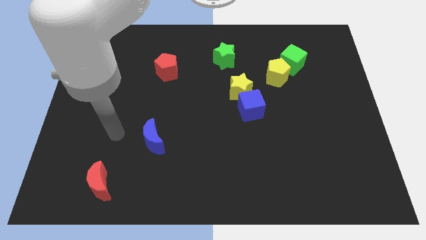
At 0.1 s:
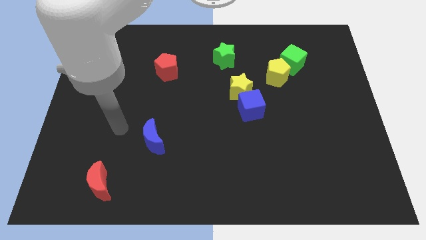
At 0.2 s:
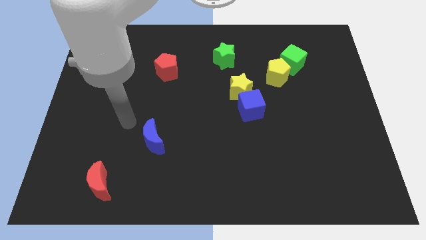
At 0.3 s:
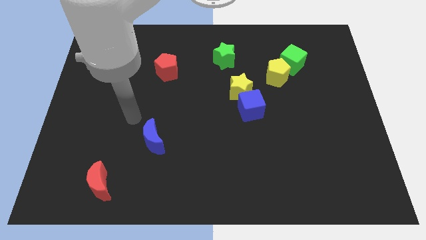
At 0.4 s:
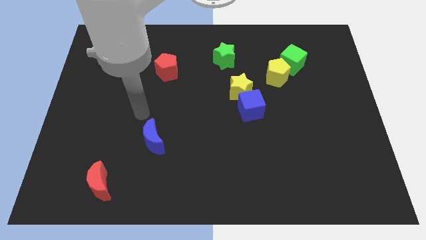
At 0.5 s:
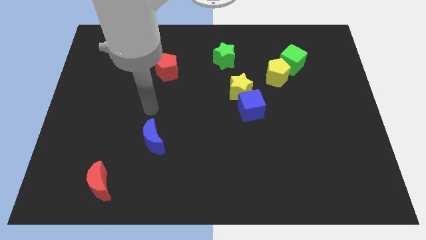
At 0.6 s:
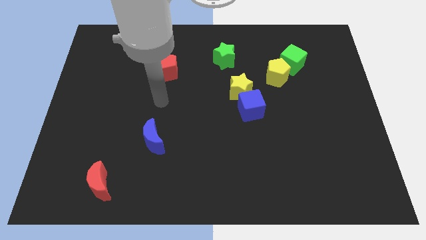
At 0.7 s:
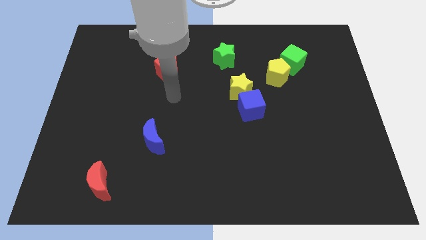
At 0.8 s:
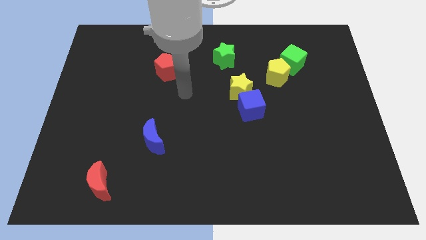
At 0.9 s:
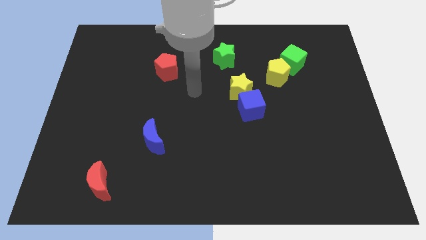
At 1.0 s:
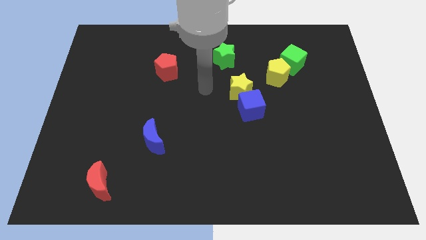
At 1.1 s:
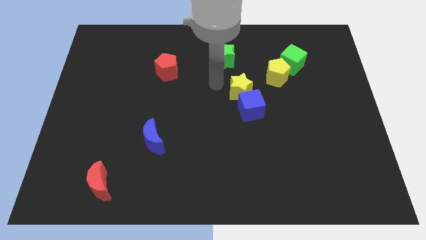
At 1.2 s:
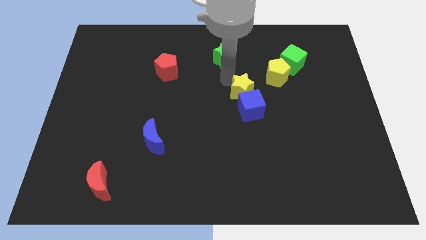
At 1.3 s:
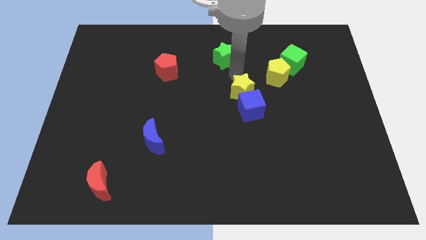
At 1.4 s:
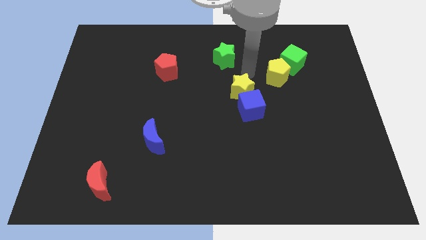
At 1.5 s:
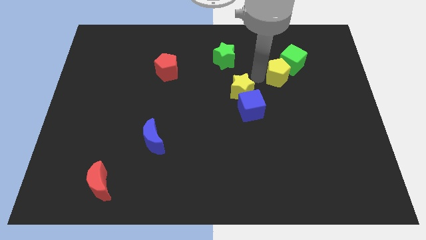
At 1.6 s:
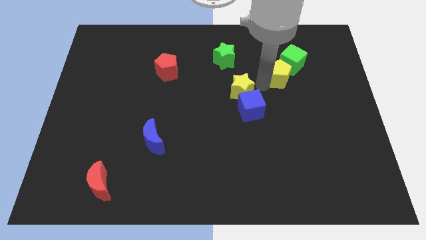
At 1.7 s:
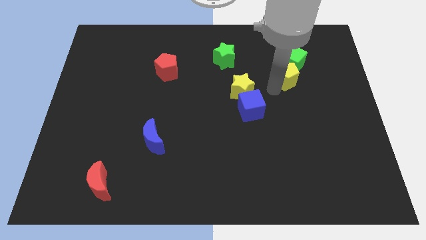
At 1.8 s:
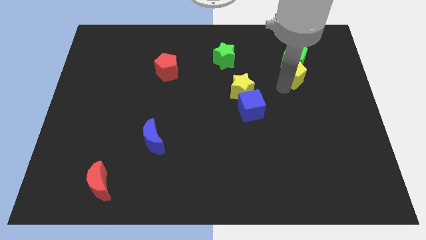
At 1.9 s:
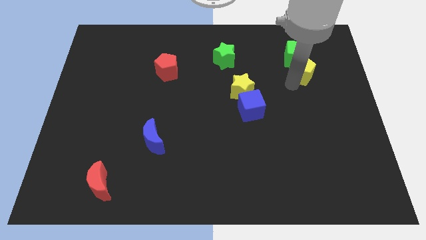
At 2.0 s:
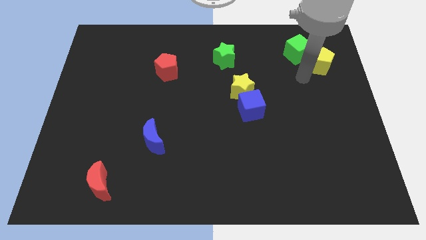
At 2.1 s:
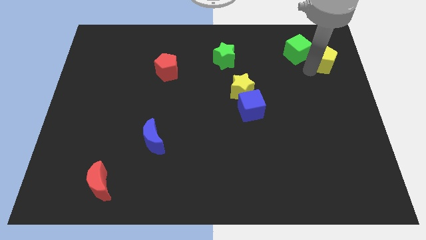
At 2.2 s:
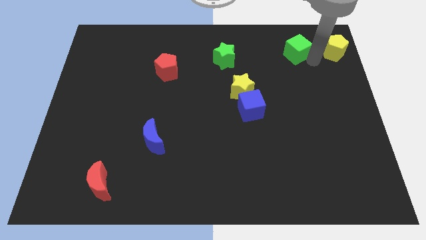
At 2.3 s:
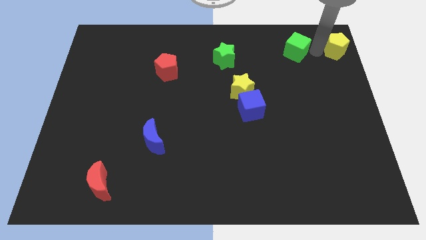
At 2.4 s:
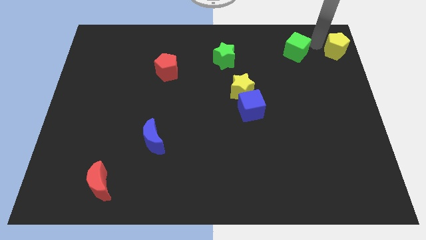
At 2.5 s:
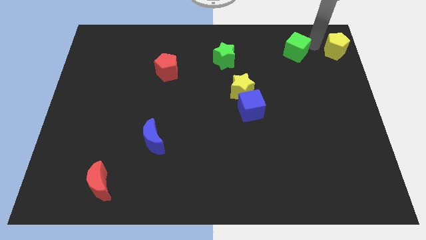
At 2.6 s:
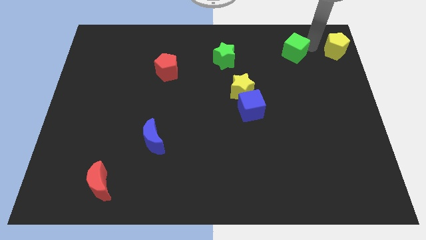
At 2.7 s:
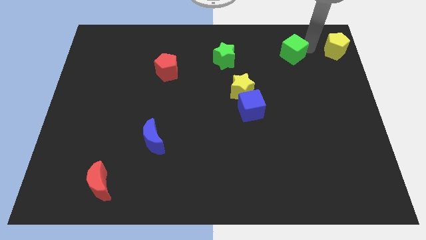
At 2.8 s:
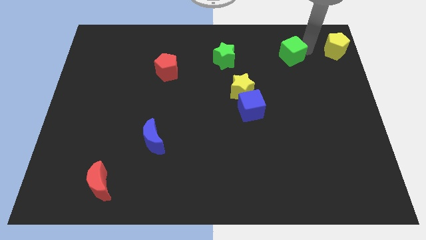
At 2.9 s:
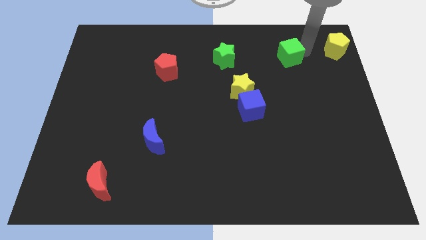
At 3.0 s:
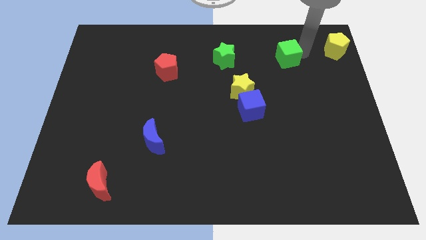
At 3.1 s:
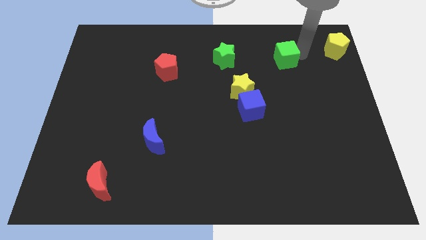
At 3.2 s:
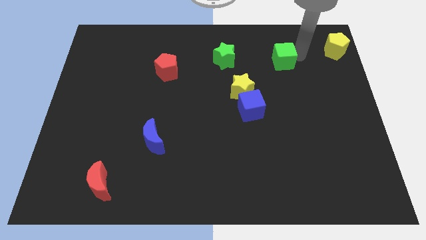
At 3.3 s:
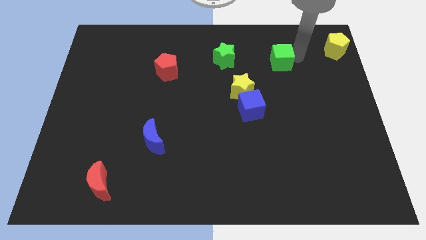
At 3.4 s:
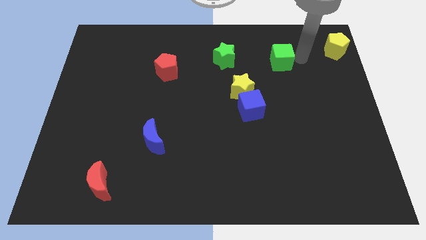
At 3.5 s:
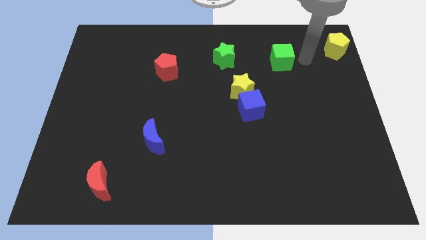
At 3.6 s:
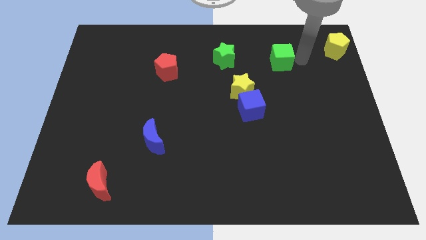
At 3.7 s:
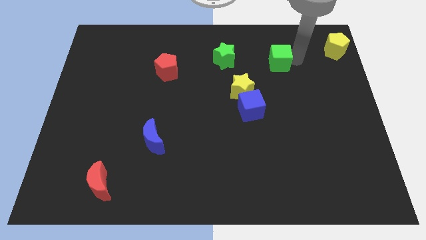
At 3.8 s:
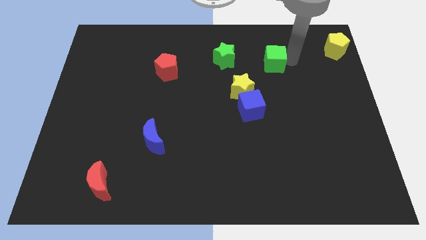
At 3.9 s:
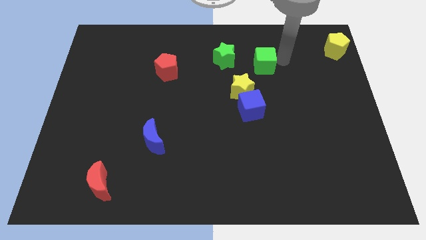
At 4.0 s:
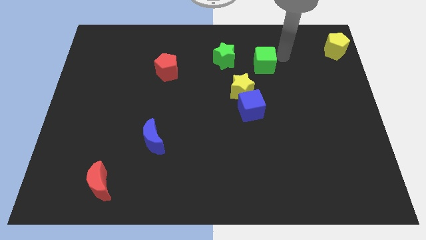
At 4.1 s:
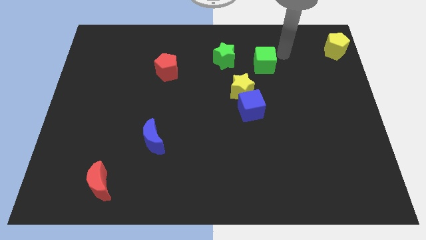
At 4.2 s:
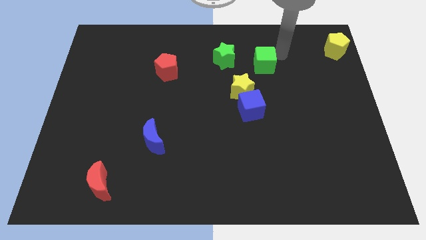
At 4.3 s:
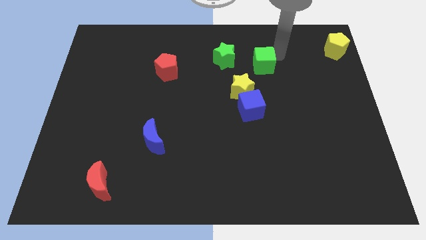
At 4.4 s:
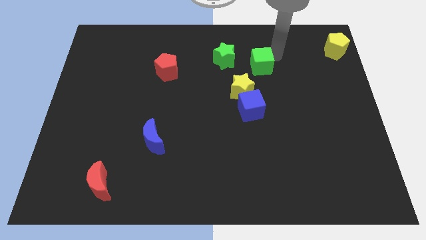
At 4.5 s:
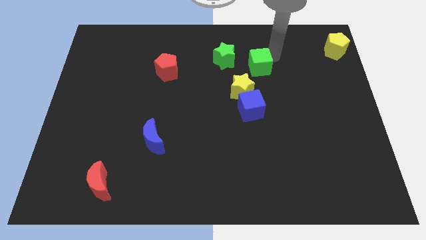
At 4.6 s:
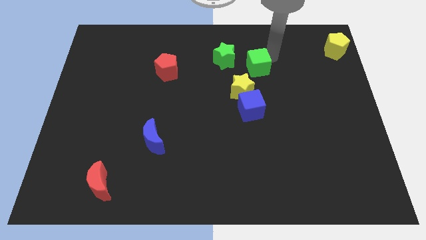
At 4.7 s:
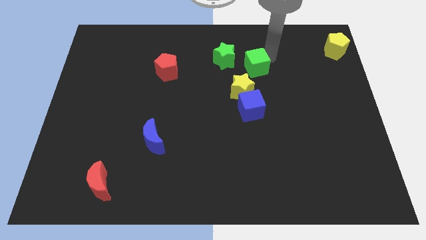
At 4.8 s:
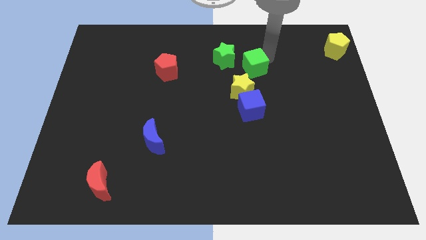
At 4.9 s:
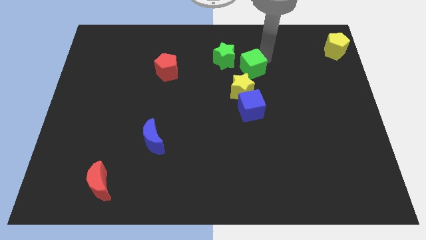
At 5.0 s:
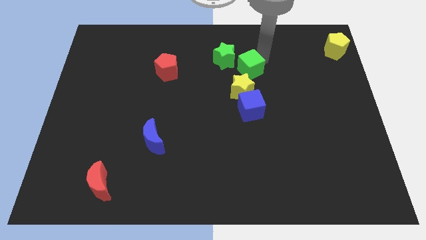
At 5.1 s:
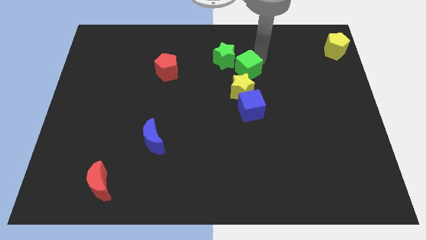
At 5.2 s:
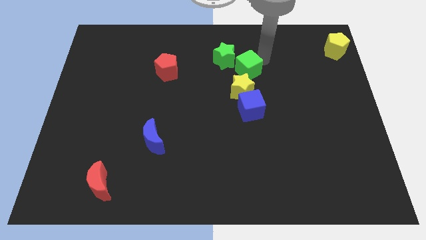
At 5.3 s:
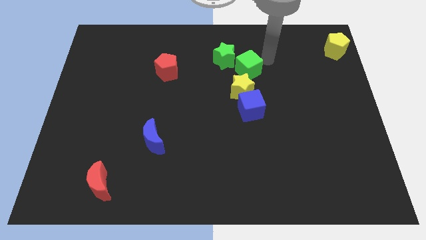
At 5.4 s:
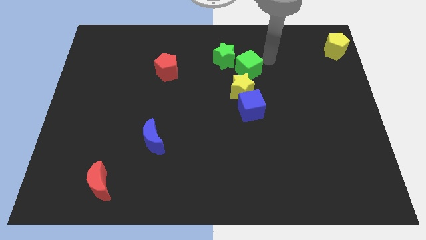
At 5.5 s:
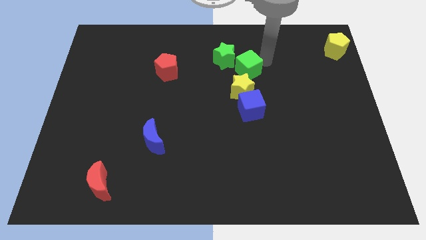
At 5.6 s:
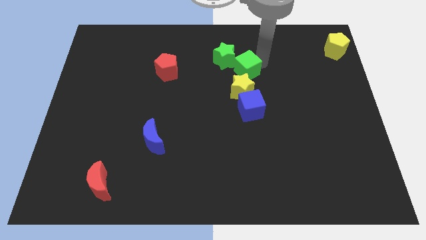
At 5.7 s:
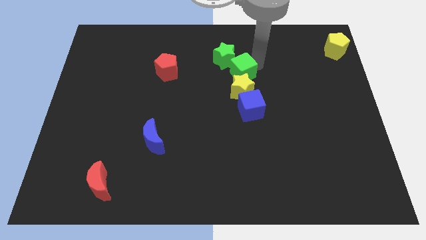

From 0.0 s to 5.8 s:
slide the green cube to the bottom side of the green star

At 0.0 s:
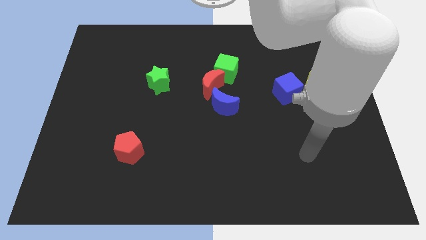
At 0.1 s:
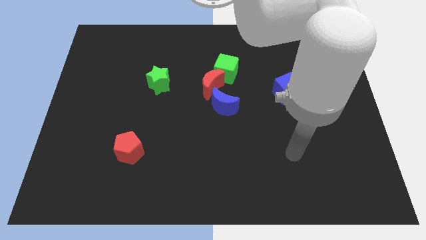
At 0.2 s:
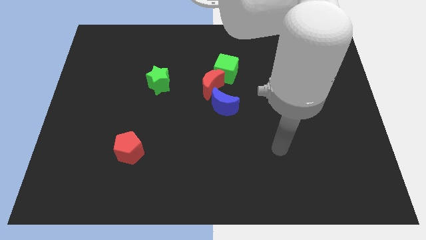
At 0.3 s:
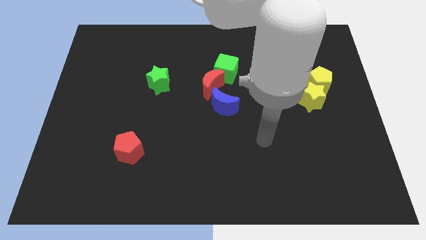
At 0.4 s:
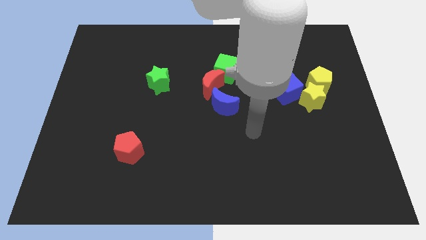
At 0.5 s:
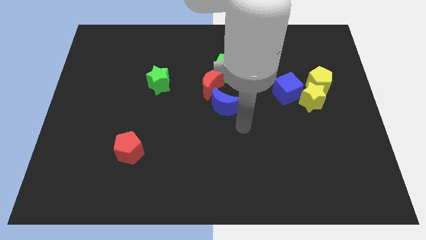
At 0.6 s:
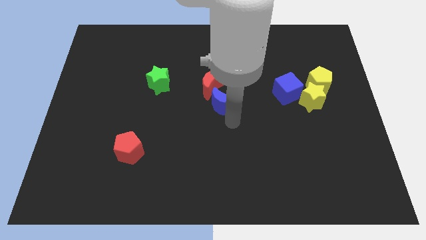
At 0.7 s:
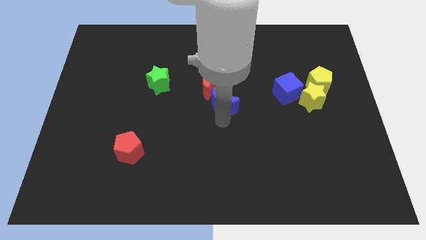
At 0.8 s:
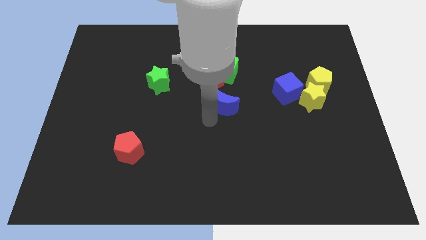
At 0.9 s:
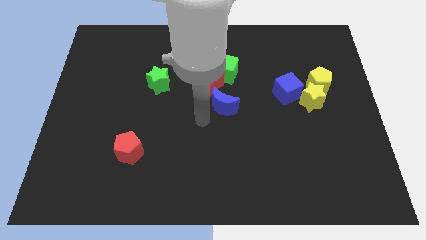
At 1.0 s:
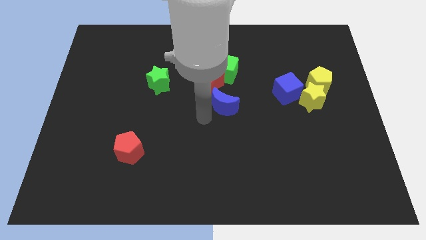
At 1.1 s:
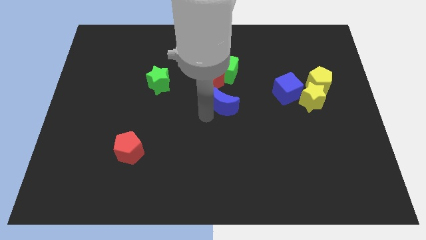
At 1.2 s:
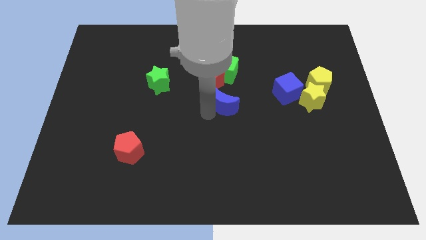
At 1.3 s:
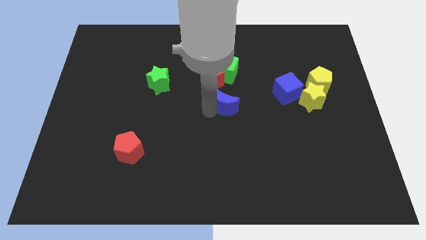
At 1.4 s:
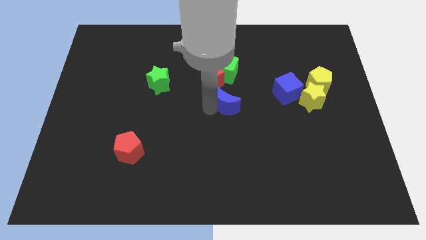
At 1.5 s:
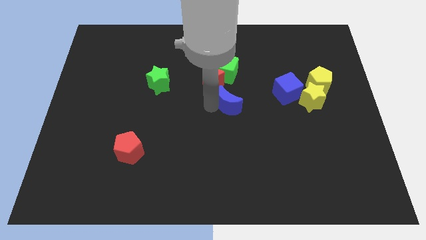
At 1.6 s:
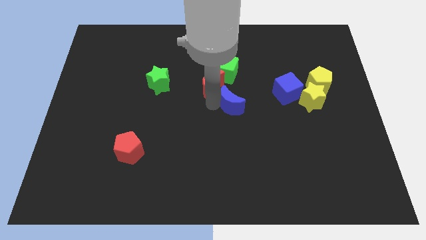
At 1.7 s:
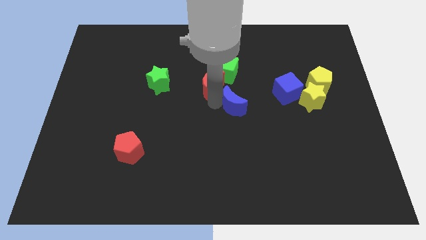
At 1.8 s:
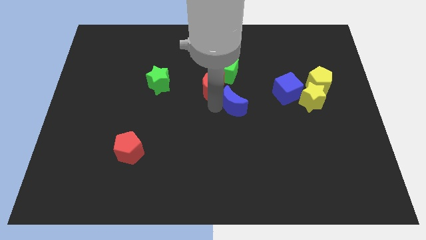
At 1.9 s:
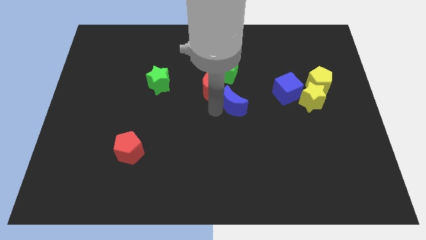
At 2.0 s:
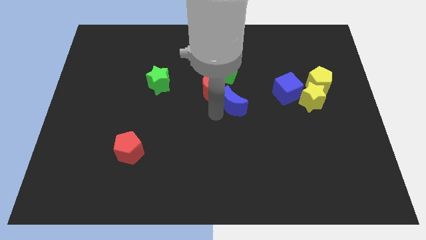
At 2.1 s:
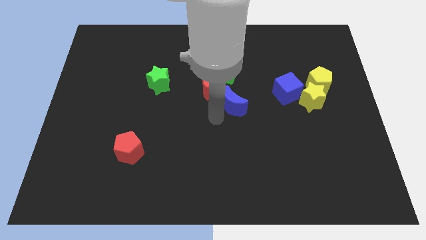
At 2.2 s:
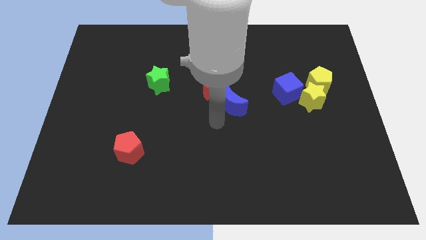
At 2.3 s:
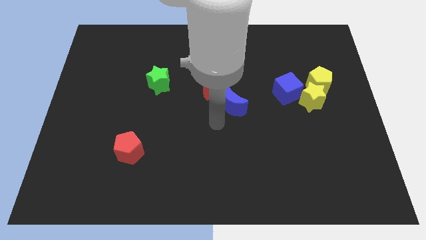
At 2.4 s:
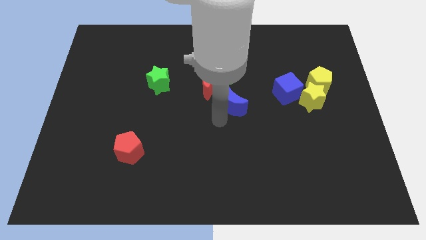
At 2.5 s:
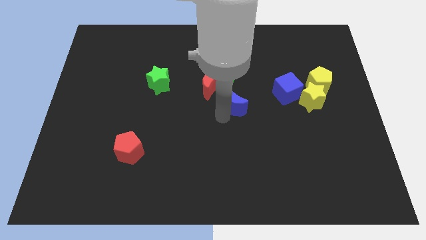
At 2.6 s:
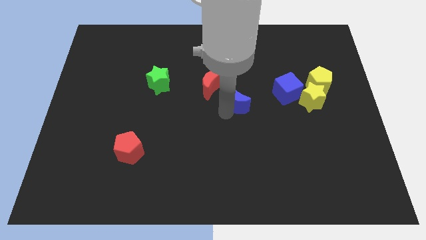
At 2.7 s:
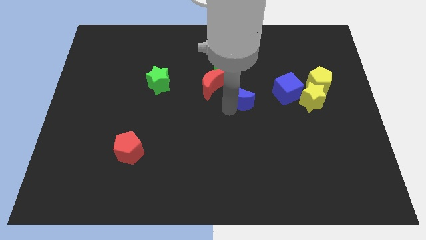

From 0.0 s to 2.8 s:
push the blue moon just right of the red moon
